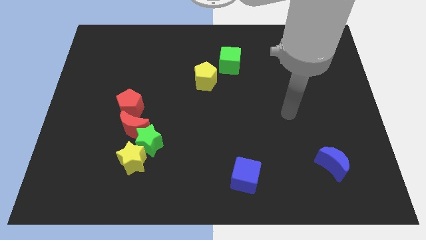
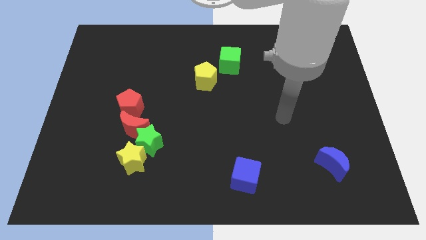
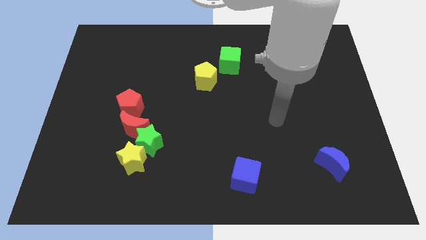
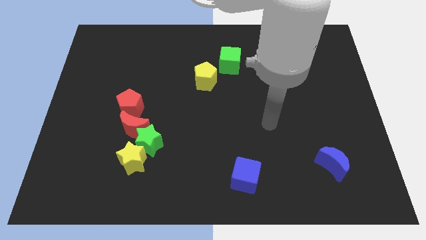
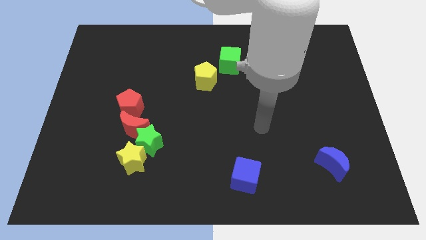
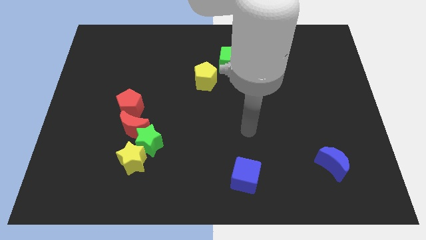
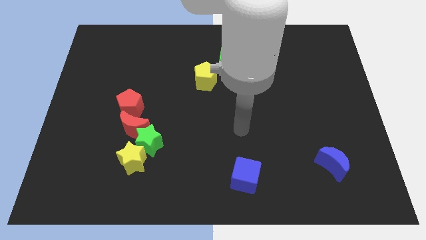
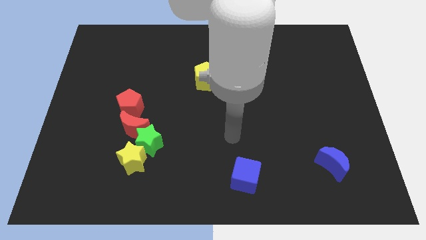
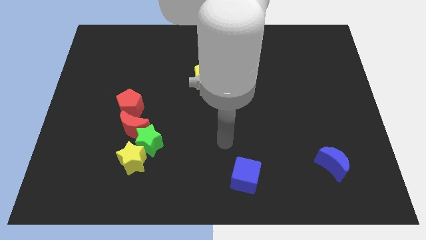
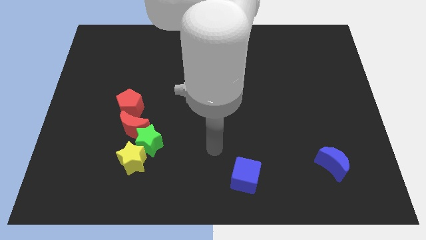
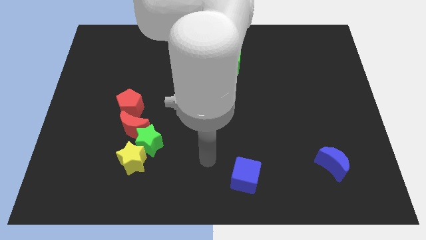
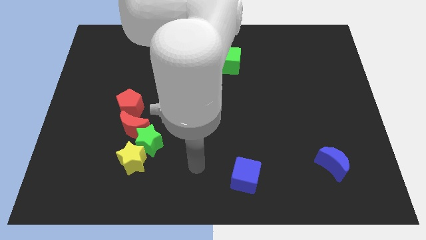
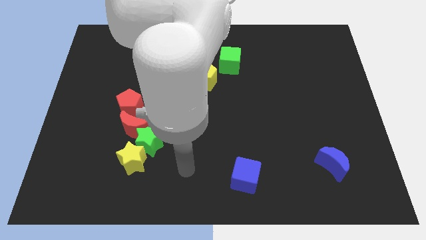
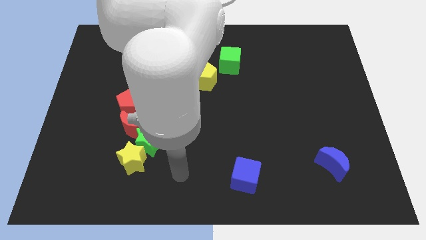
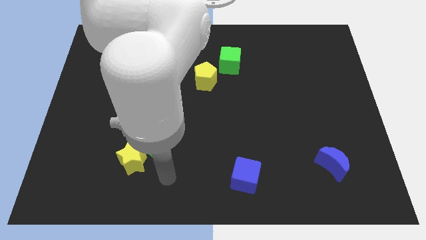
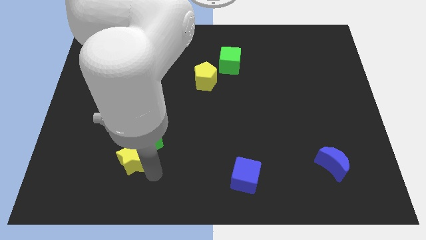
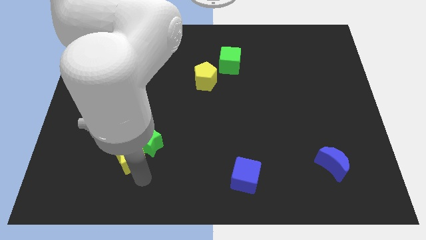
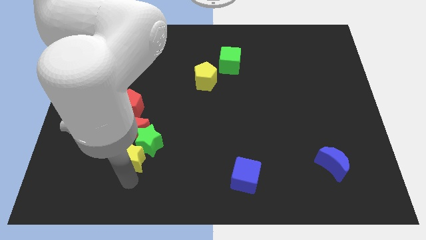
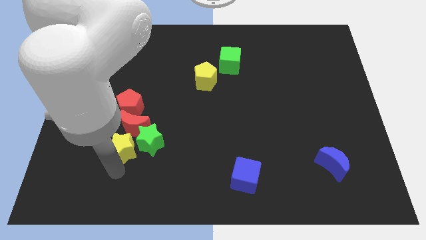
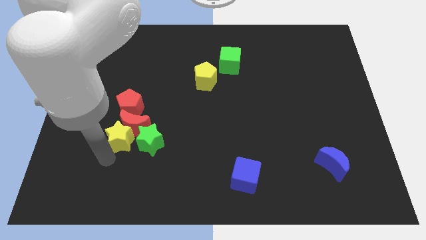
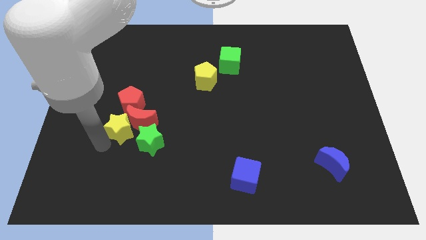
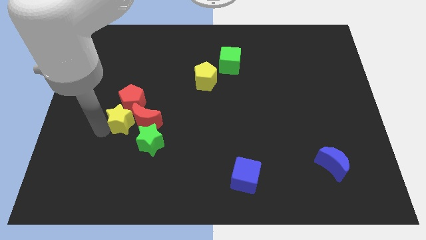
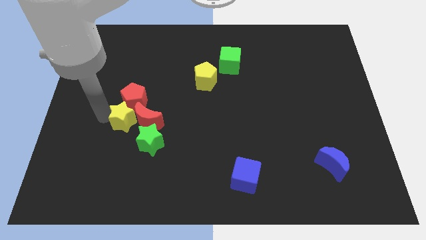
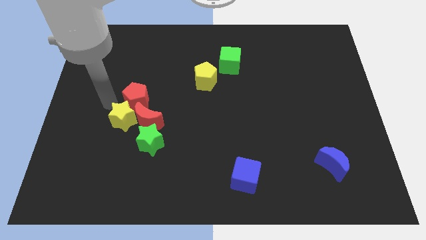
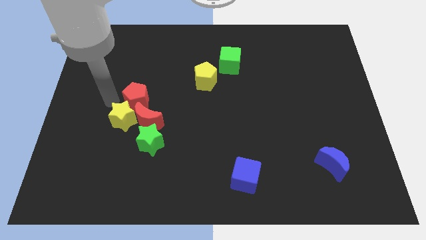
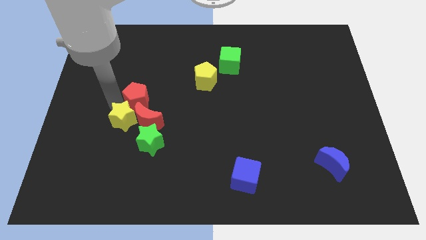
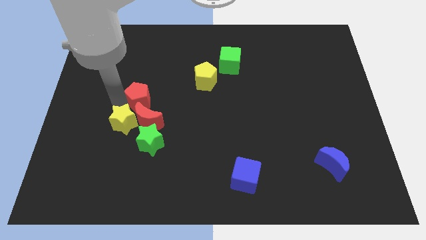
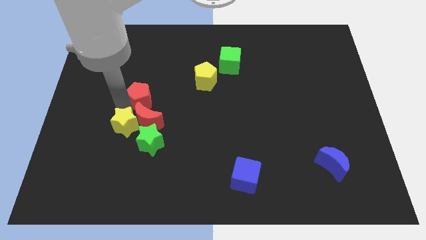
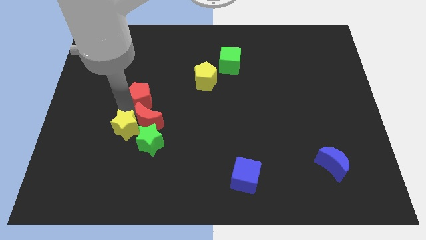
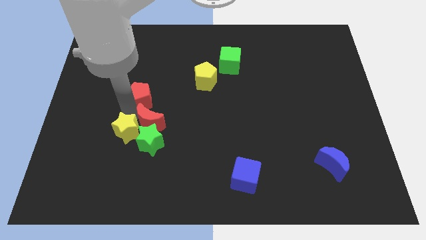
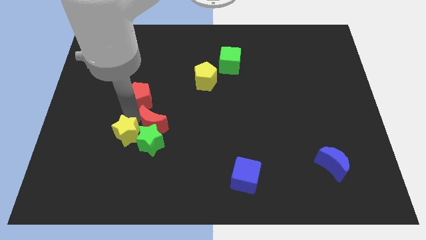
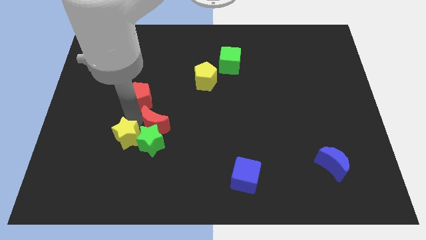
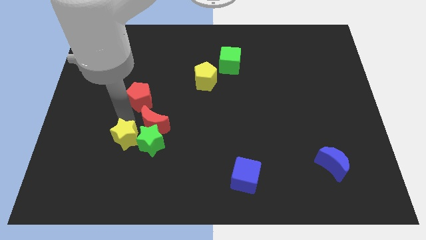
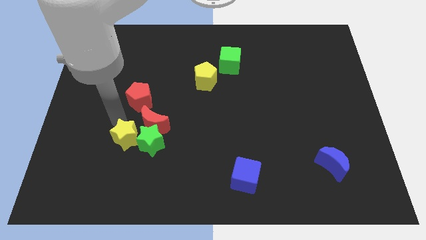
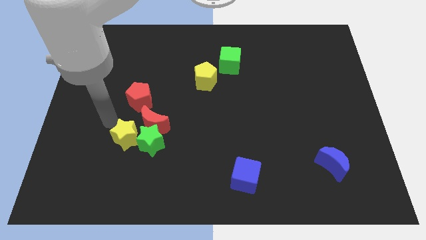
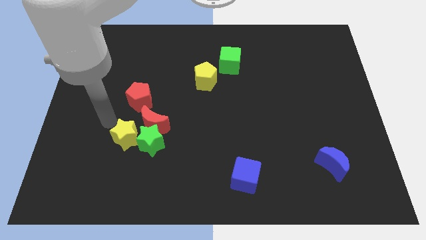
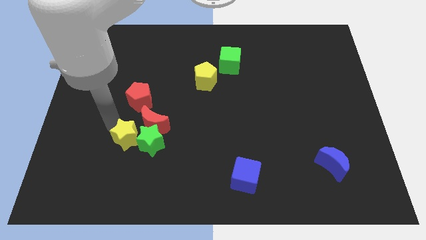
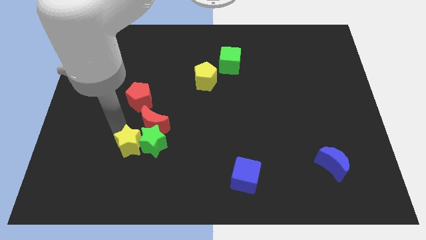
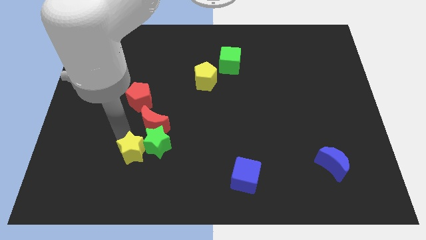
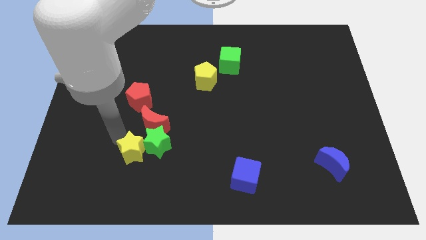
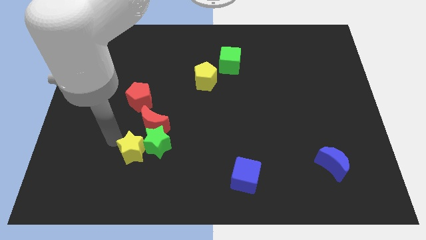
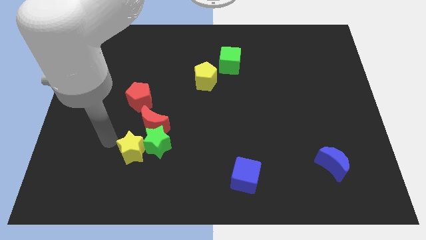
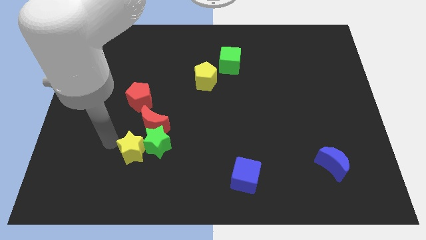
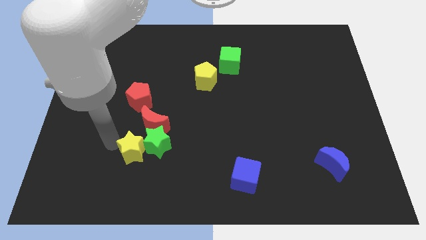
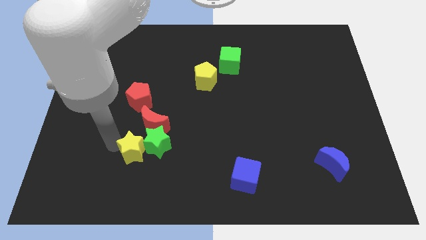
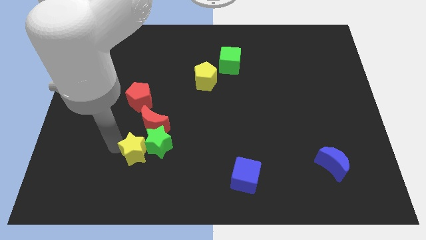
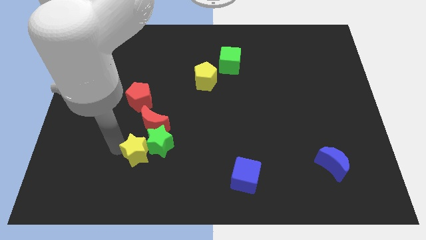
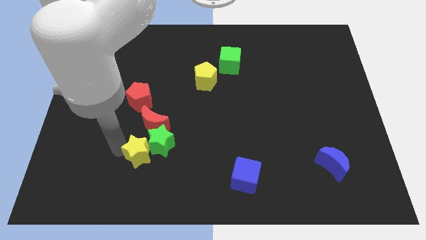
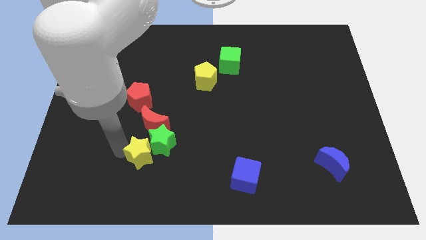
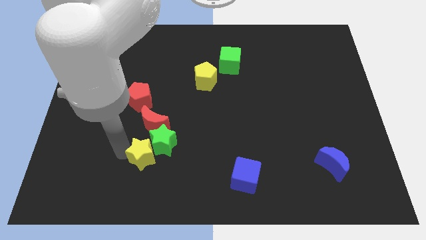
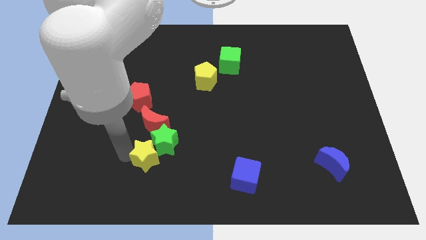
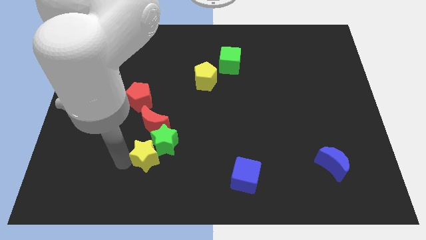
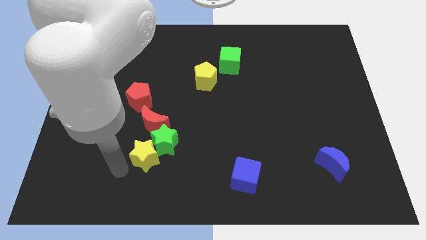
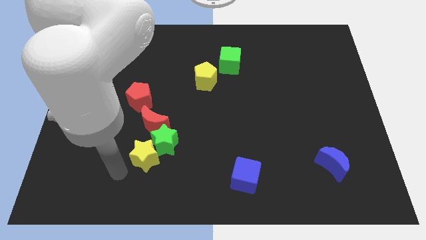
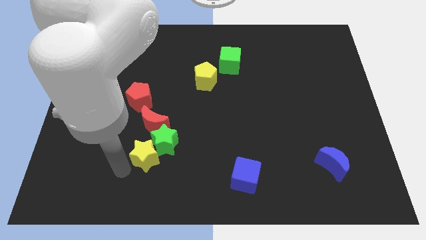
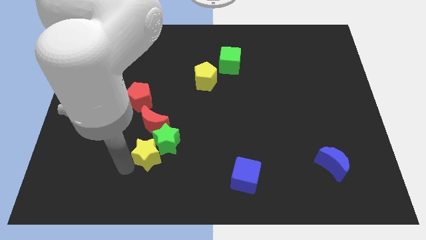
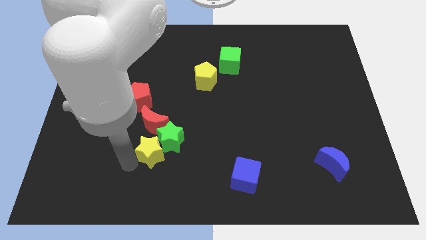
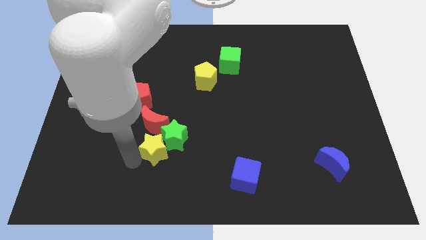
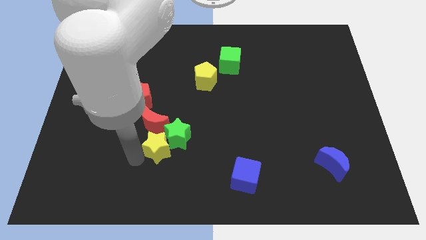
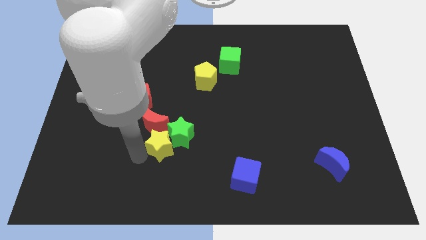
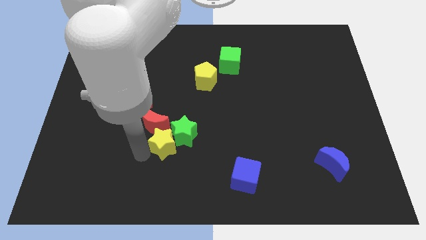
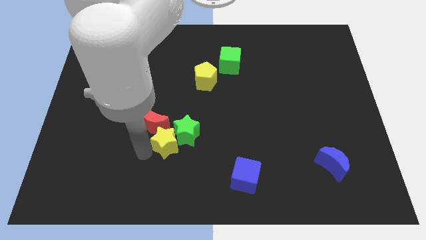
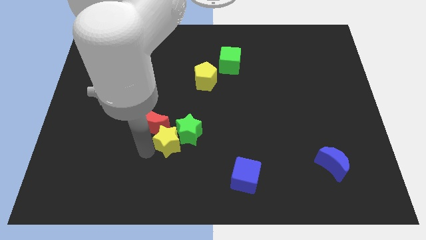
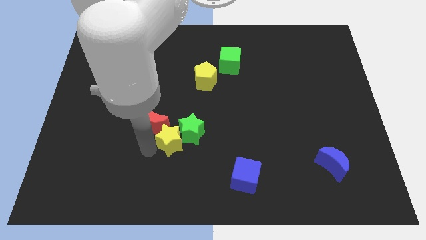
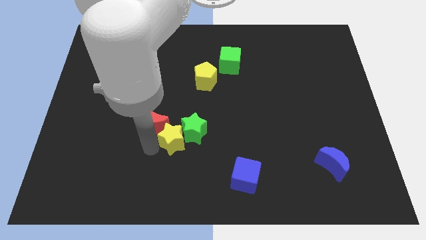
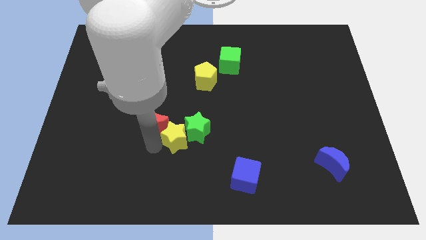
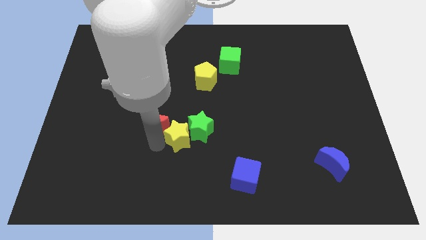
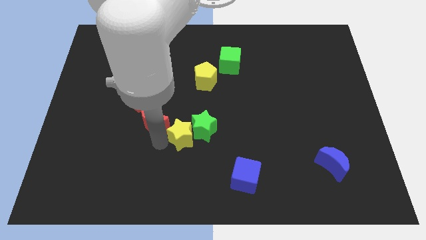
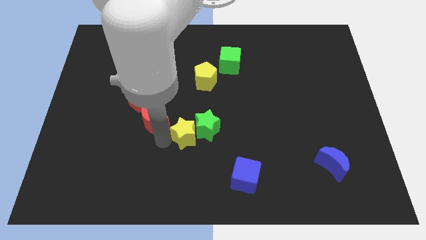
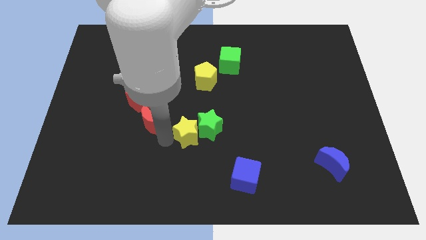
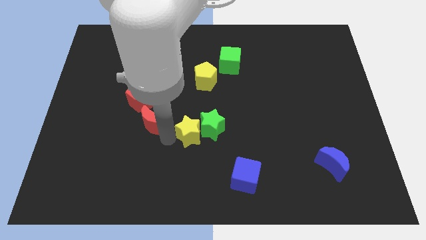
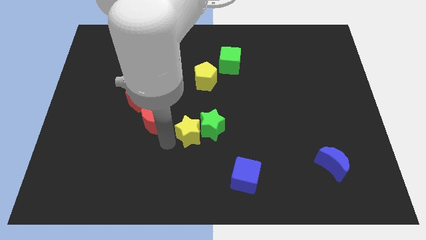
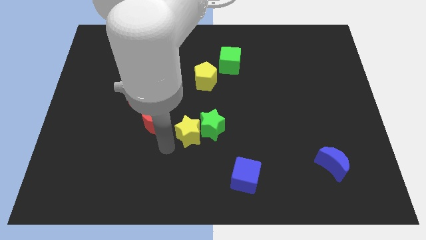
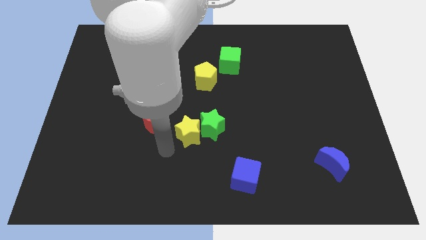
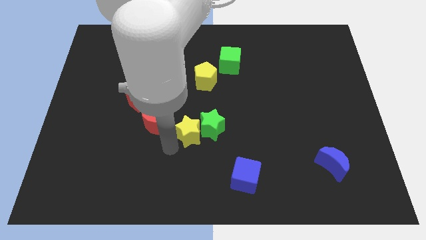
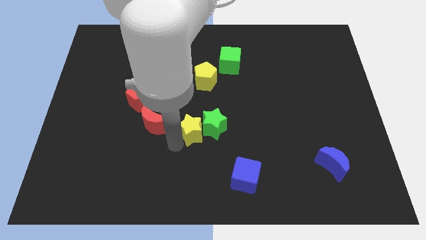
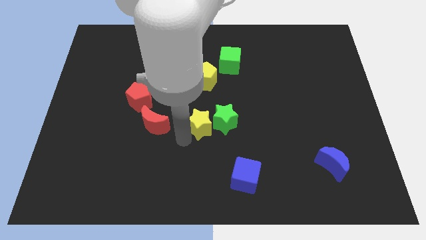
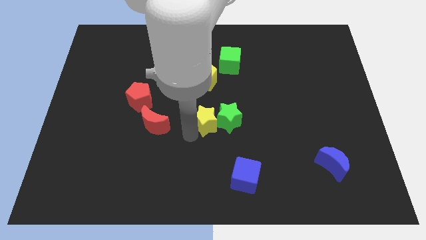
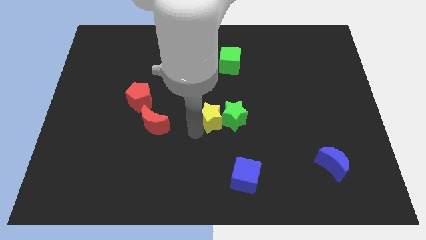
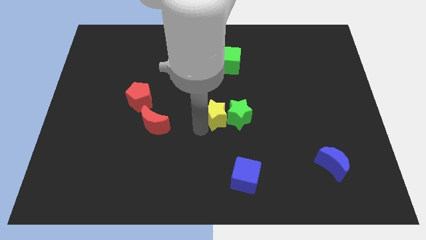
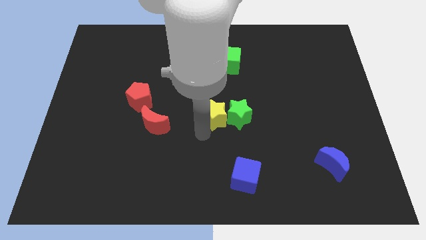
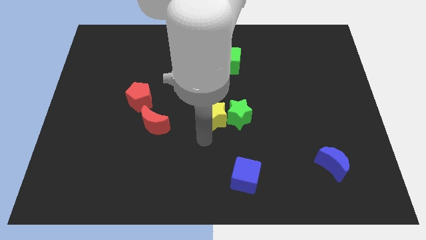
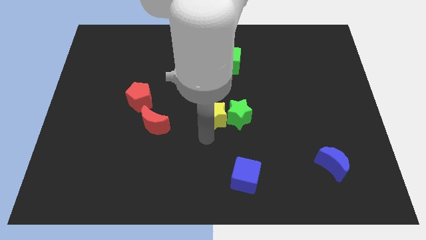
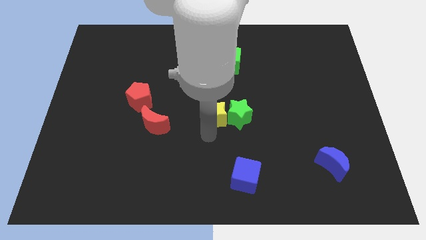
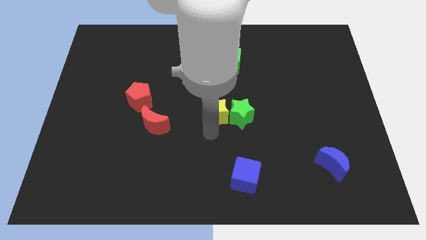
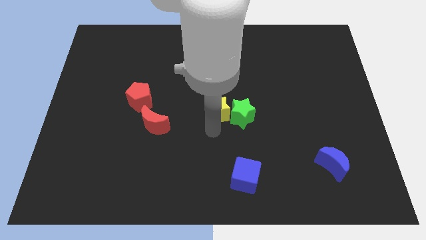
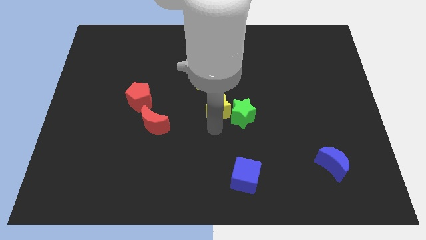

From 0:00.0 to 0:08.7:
push the yellow star diagonally down and to the right of the yellow pentagon
